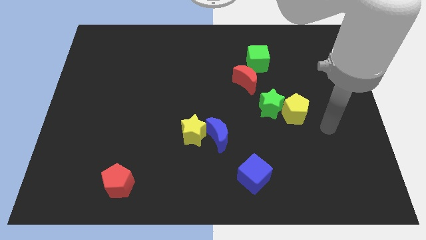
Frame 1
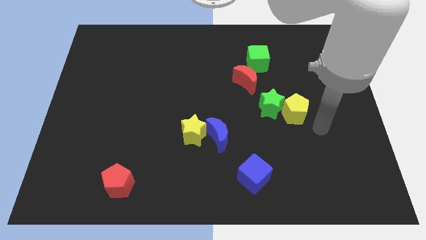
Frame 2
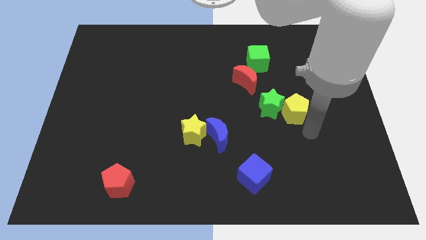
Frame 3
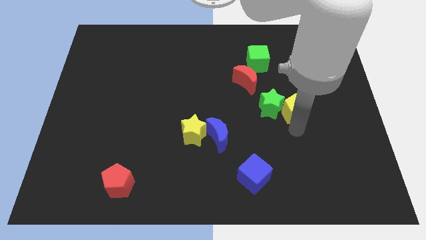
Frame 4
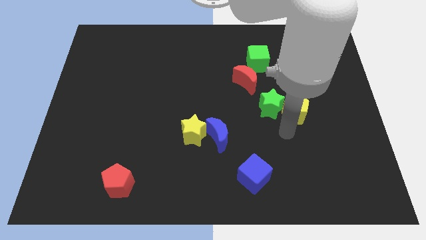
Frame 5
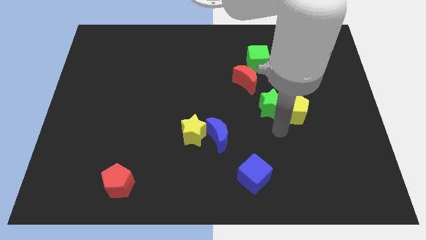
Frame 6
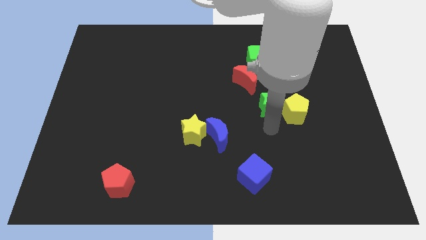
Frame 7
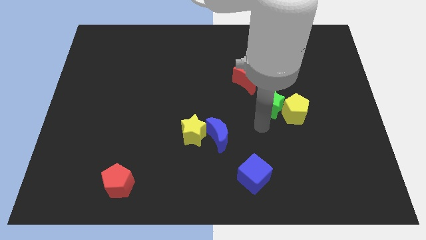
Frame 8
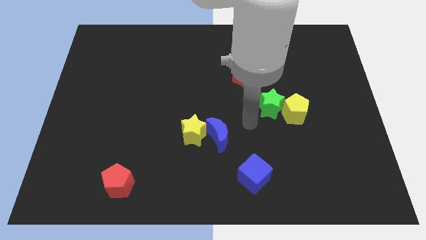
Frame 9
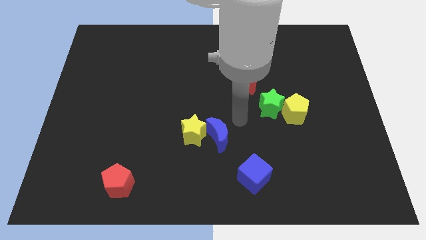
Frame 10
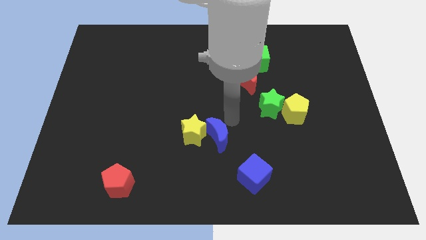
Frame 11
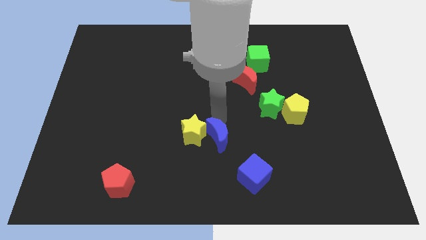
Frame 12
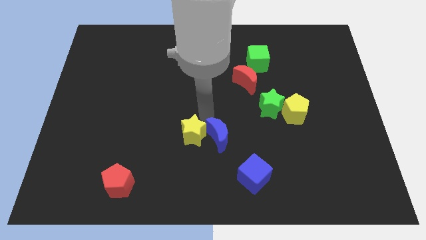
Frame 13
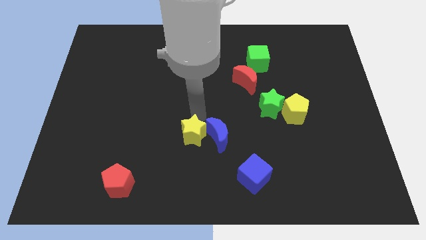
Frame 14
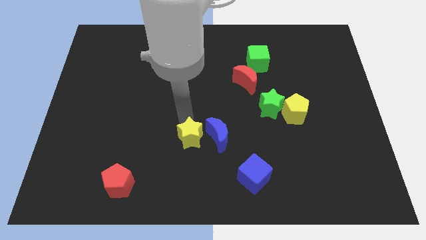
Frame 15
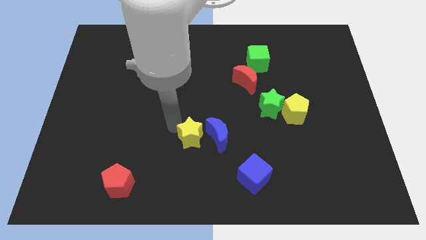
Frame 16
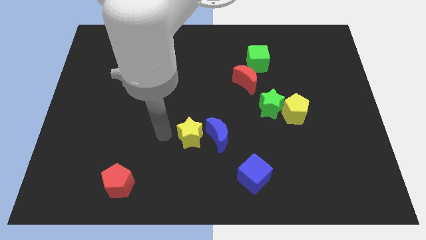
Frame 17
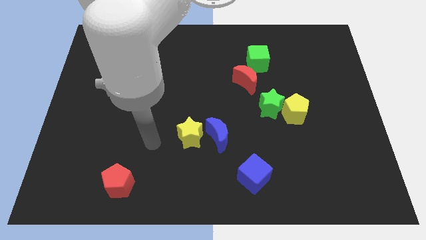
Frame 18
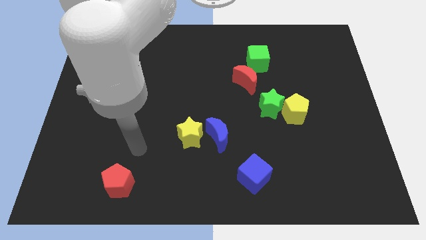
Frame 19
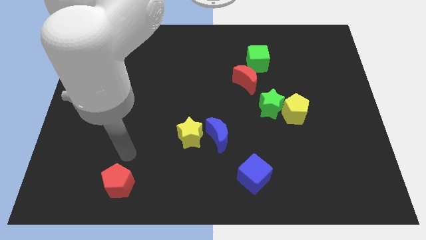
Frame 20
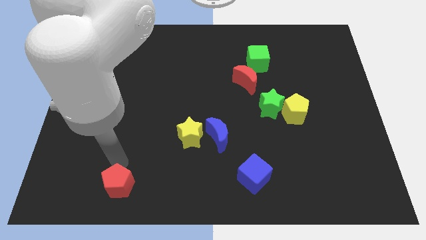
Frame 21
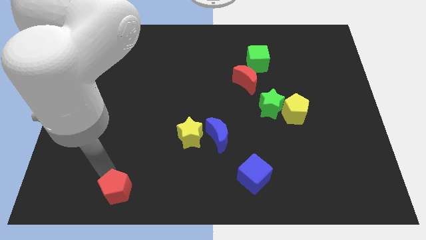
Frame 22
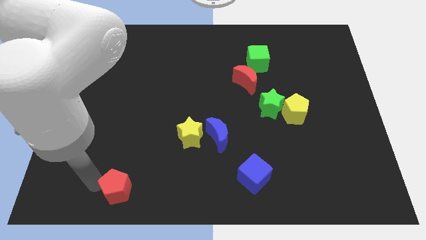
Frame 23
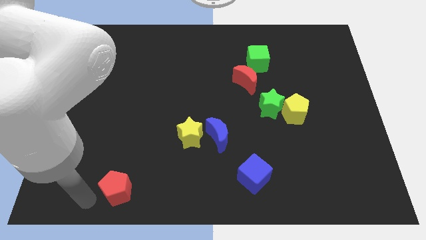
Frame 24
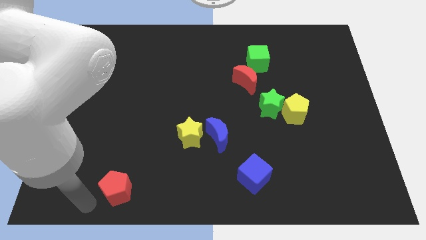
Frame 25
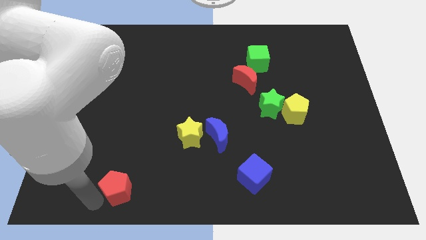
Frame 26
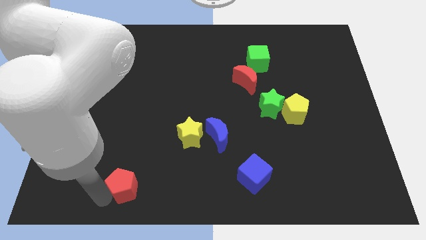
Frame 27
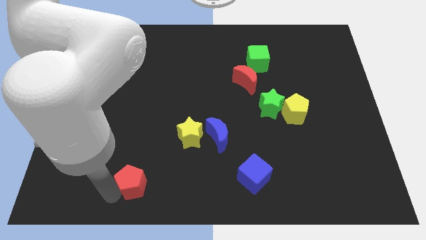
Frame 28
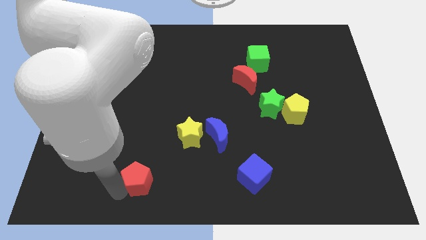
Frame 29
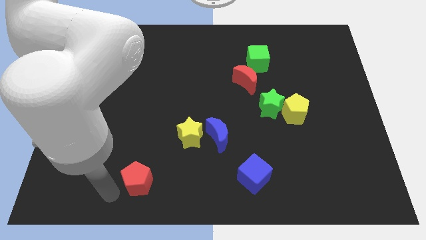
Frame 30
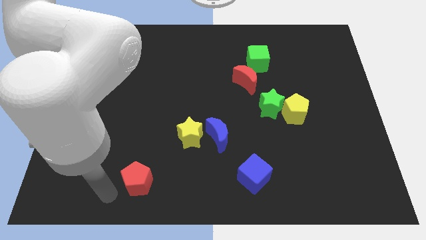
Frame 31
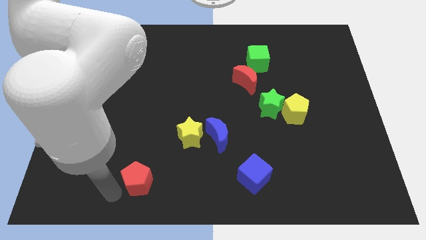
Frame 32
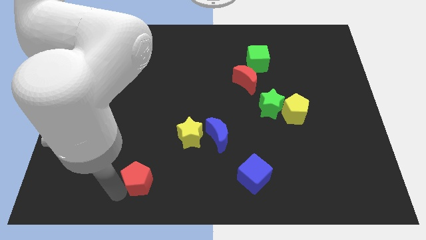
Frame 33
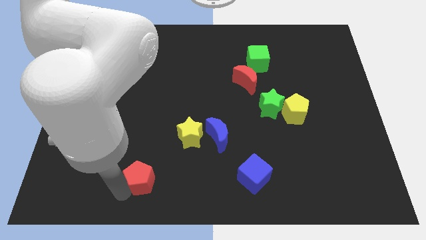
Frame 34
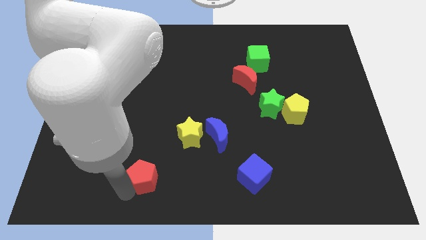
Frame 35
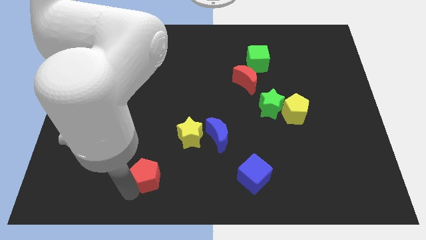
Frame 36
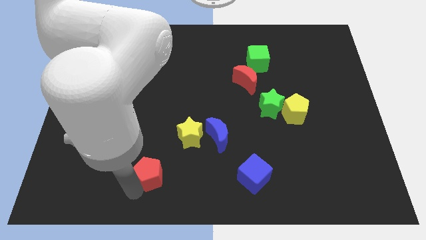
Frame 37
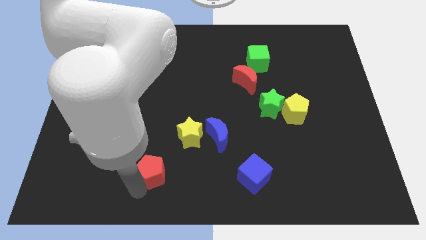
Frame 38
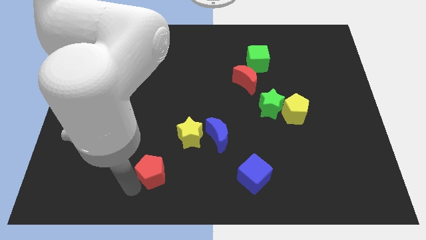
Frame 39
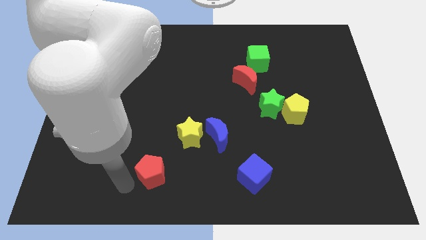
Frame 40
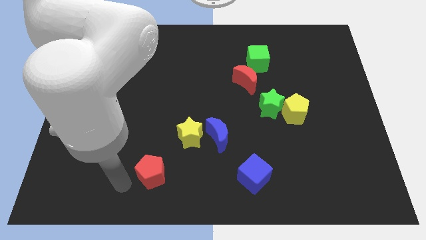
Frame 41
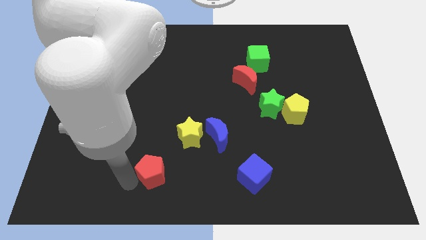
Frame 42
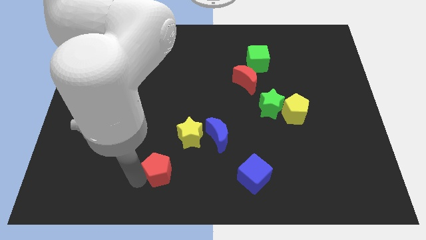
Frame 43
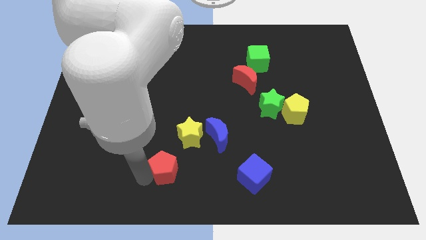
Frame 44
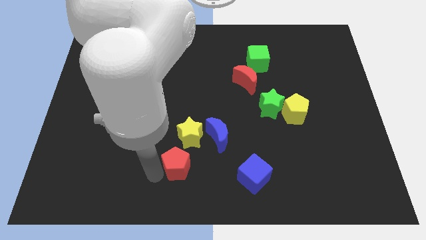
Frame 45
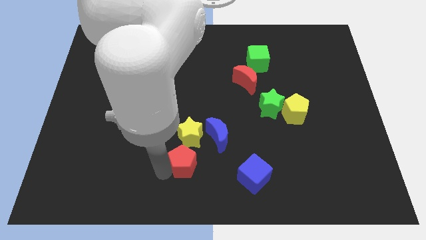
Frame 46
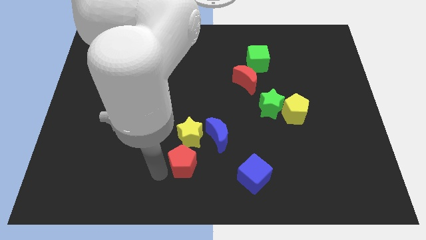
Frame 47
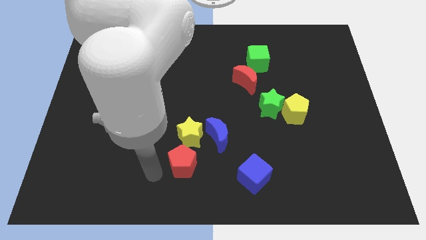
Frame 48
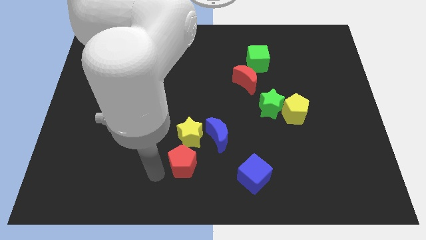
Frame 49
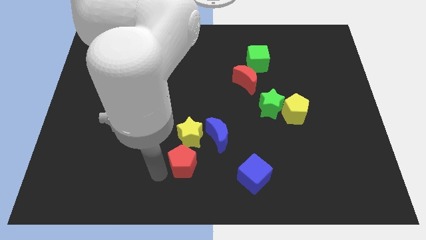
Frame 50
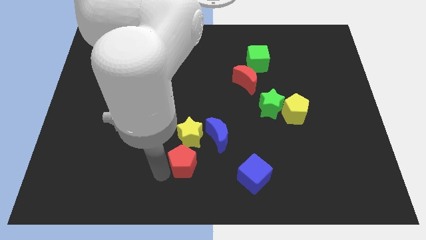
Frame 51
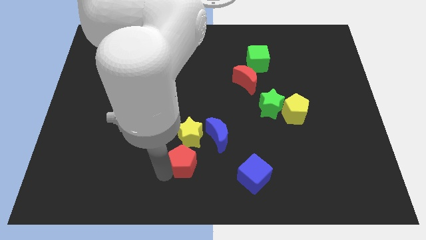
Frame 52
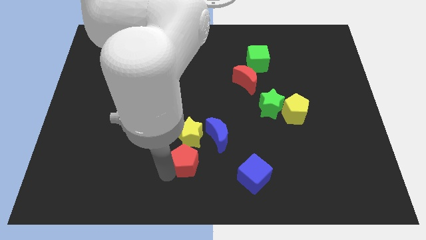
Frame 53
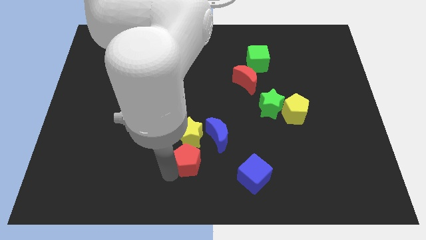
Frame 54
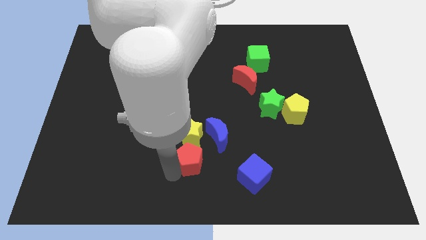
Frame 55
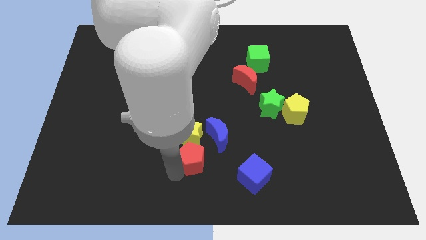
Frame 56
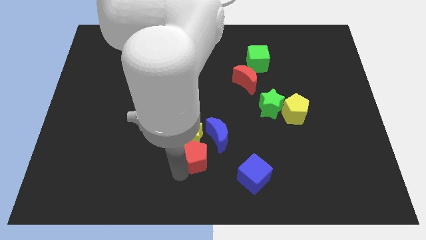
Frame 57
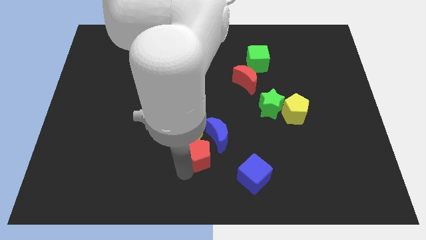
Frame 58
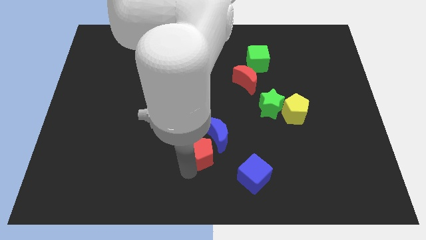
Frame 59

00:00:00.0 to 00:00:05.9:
move the red pentagon to the blue moon

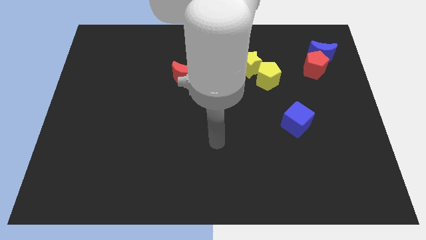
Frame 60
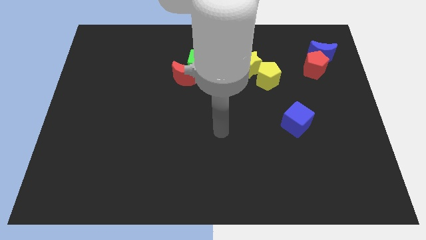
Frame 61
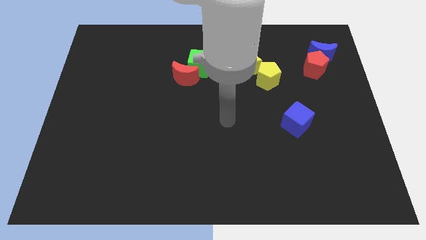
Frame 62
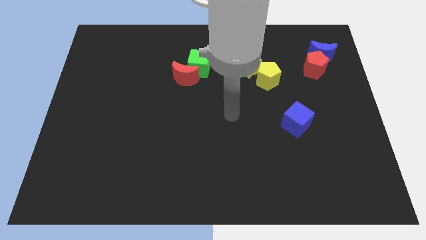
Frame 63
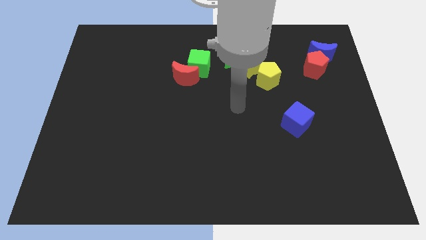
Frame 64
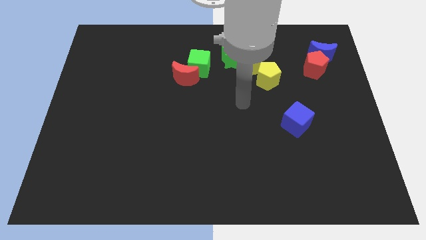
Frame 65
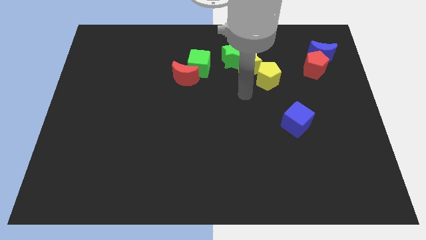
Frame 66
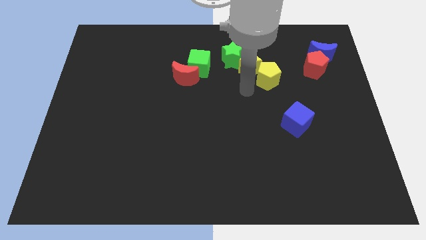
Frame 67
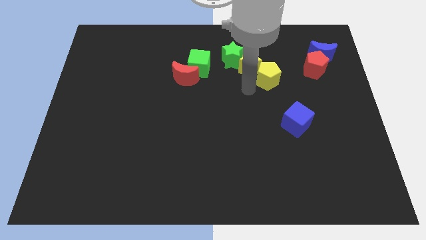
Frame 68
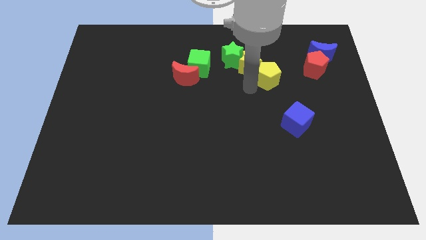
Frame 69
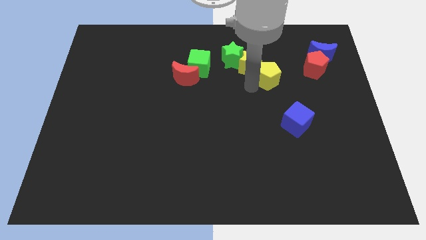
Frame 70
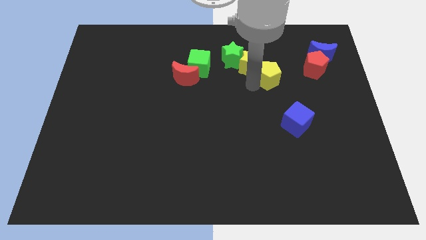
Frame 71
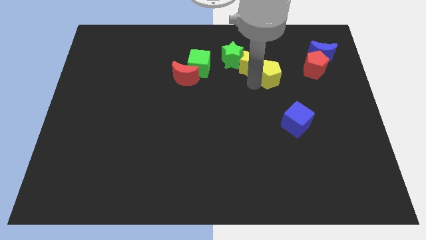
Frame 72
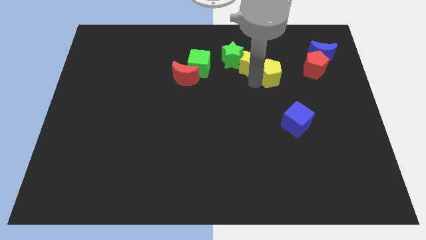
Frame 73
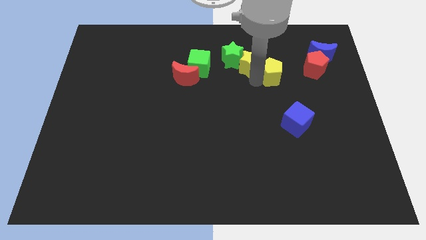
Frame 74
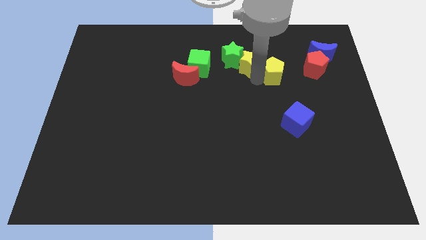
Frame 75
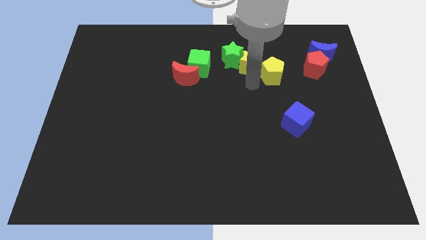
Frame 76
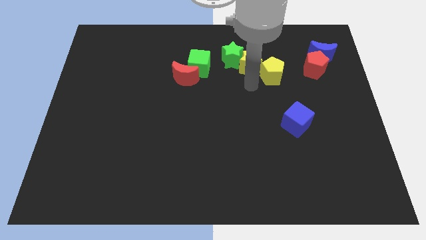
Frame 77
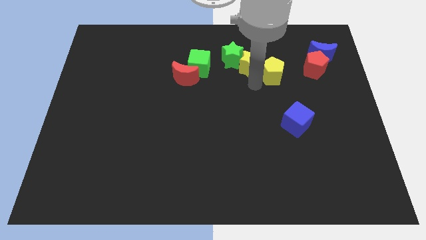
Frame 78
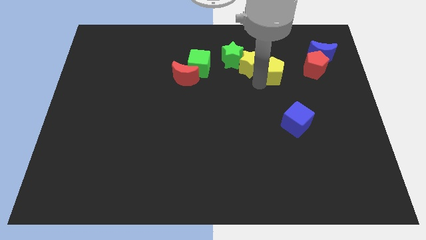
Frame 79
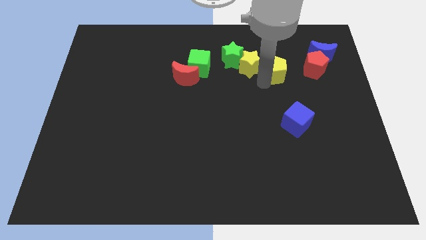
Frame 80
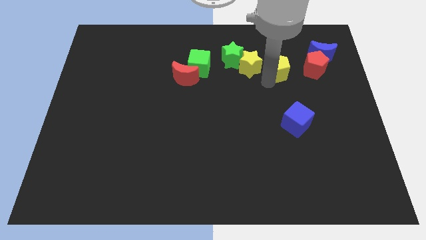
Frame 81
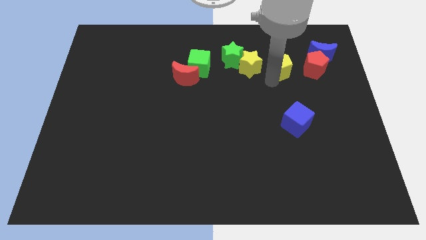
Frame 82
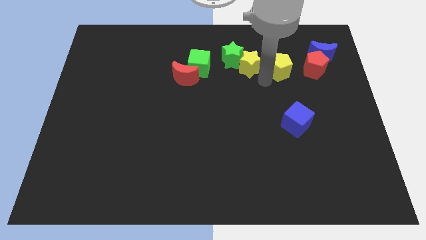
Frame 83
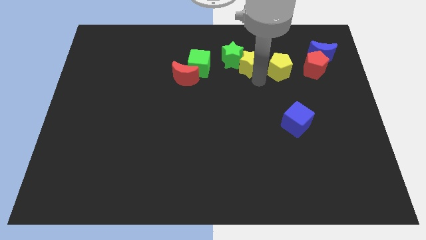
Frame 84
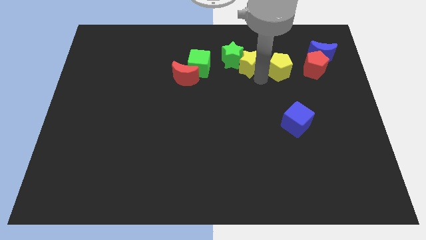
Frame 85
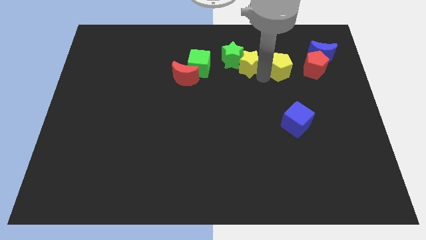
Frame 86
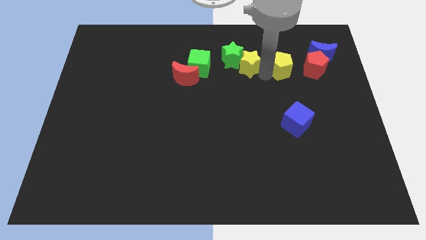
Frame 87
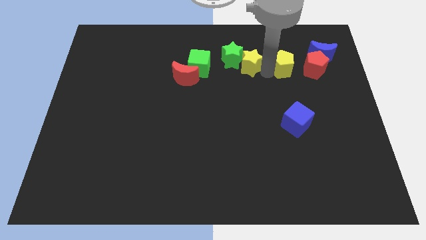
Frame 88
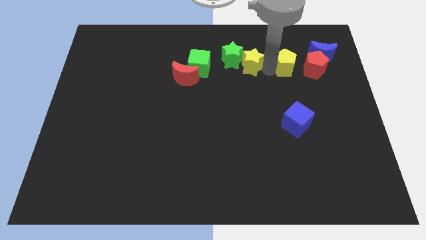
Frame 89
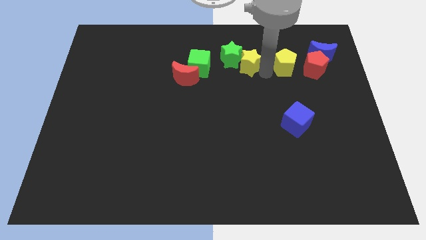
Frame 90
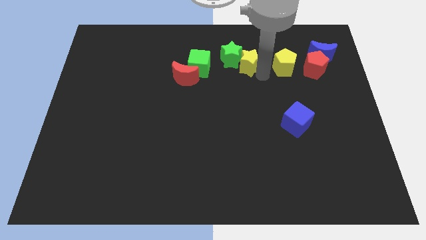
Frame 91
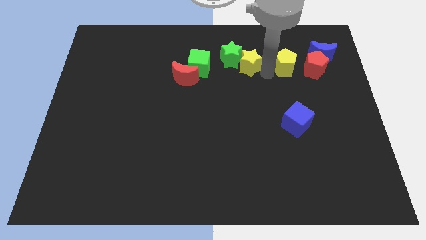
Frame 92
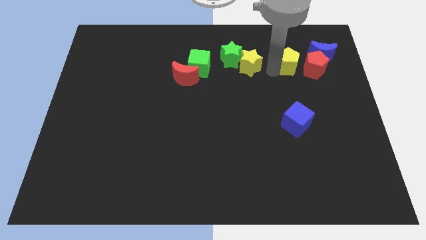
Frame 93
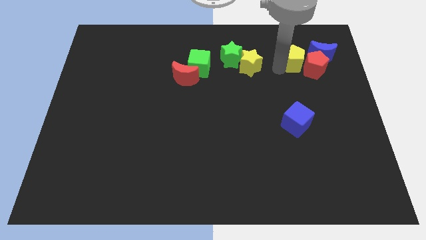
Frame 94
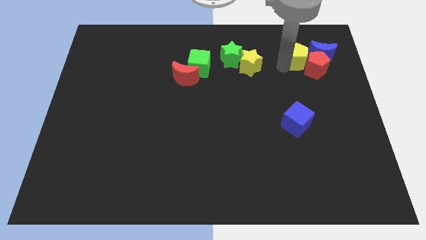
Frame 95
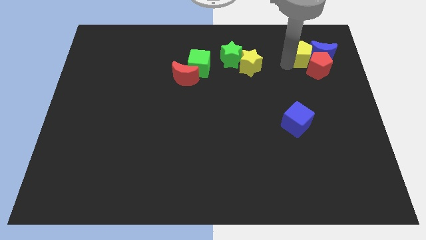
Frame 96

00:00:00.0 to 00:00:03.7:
push the yellow pentagon next to the blue moon
